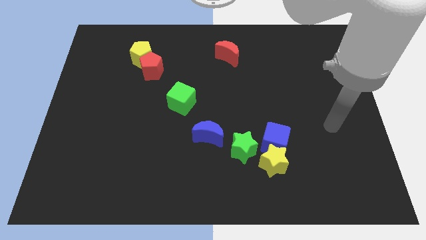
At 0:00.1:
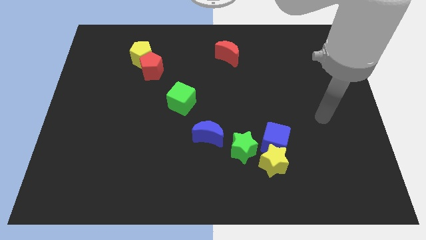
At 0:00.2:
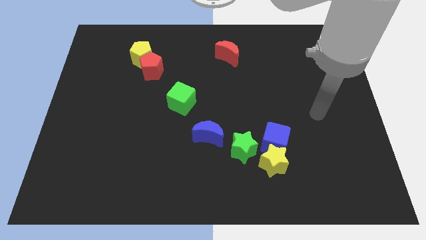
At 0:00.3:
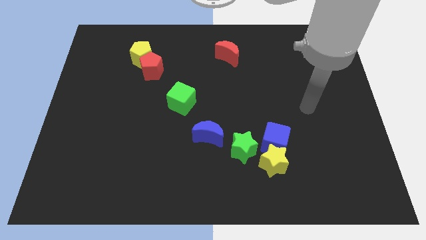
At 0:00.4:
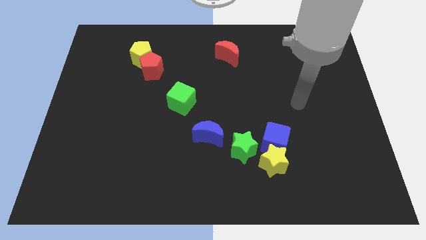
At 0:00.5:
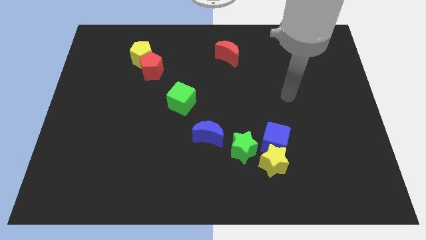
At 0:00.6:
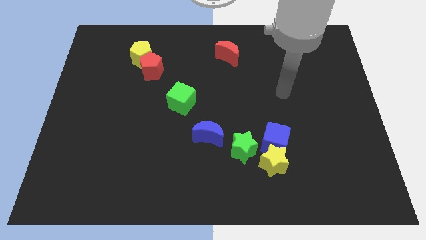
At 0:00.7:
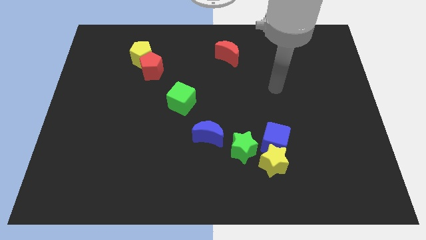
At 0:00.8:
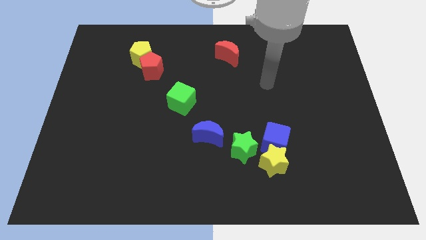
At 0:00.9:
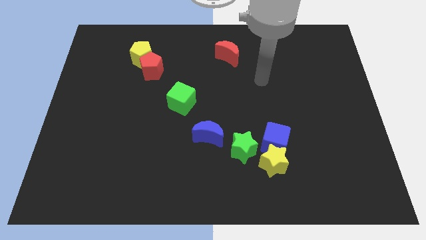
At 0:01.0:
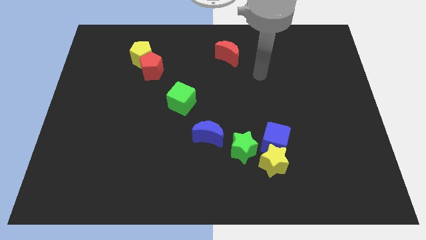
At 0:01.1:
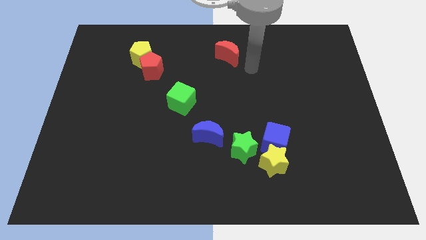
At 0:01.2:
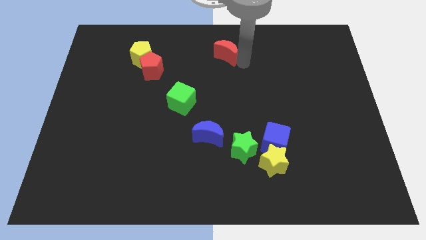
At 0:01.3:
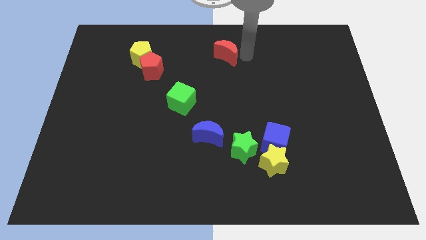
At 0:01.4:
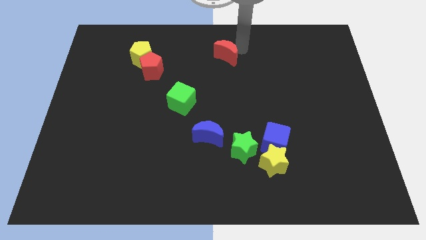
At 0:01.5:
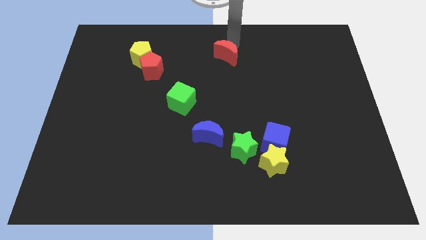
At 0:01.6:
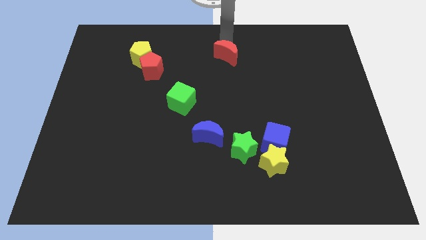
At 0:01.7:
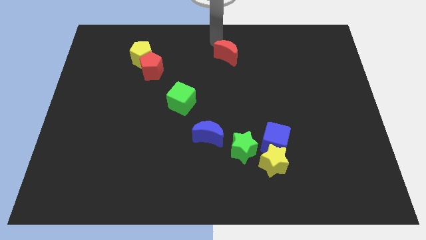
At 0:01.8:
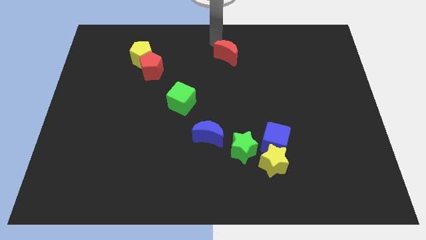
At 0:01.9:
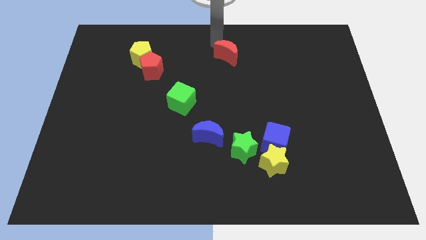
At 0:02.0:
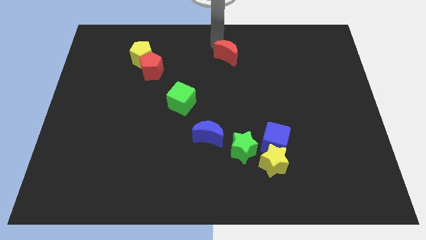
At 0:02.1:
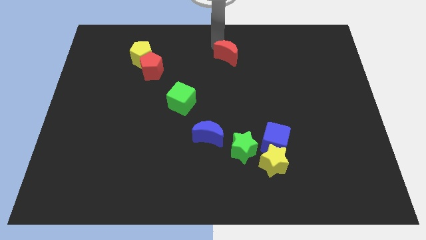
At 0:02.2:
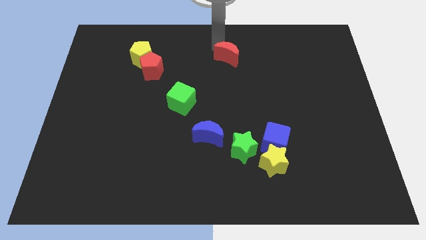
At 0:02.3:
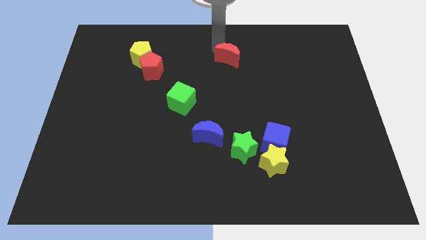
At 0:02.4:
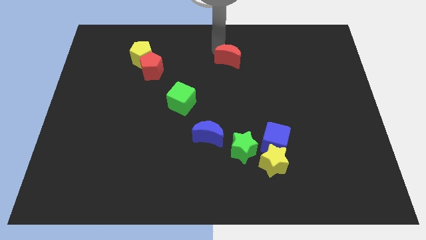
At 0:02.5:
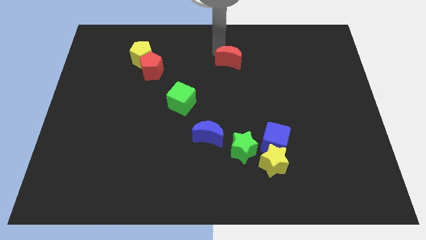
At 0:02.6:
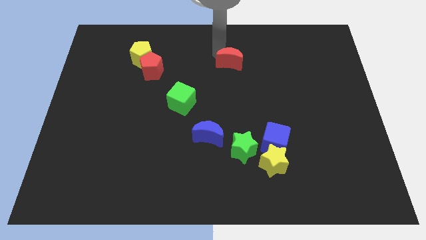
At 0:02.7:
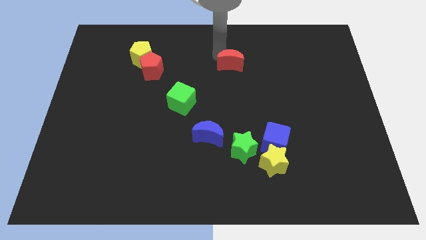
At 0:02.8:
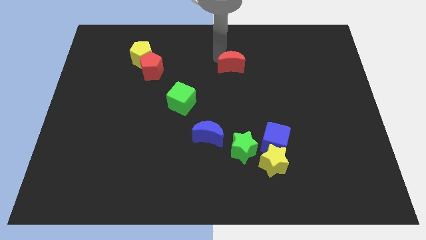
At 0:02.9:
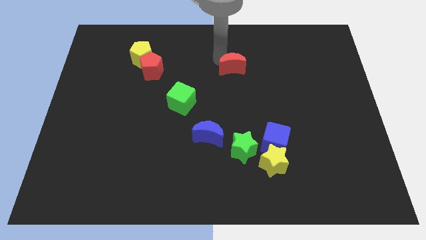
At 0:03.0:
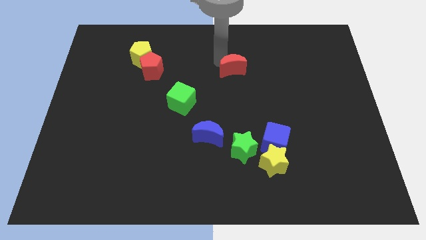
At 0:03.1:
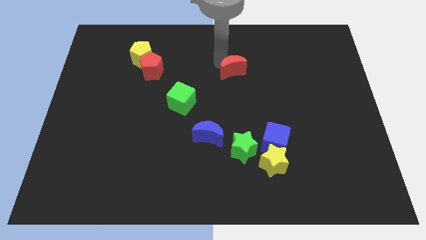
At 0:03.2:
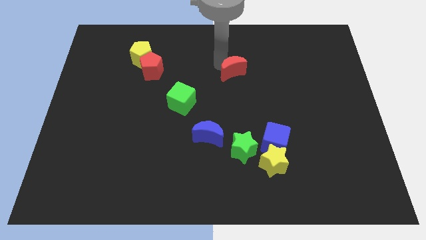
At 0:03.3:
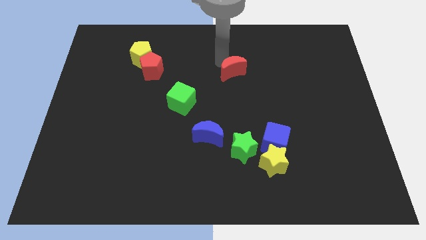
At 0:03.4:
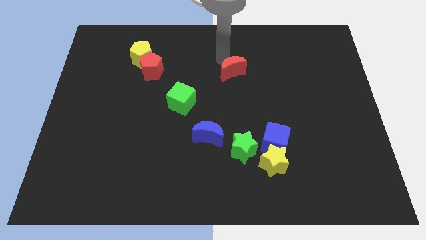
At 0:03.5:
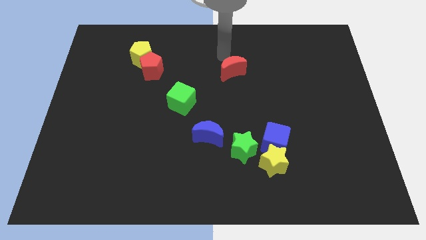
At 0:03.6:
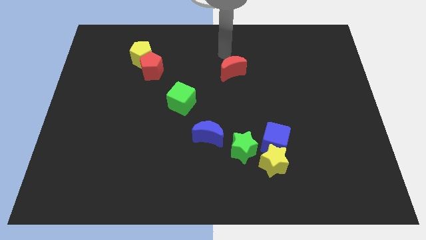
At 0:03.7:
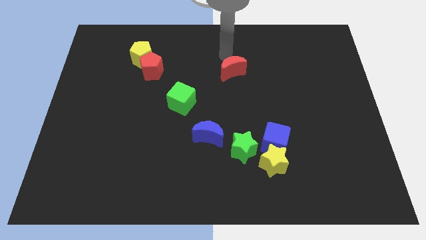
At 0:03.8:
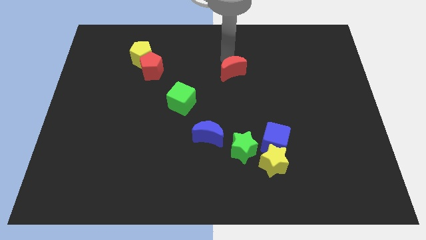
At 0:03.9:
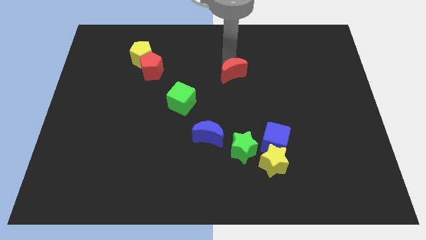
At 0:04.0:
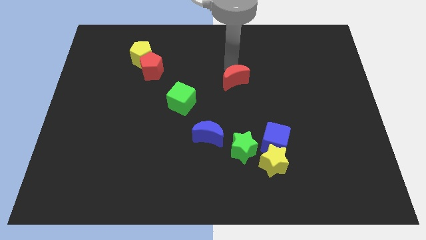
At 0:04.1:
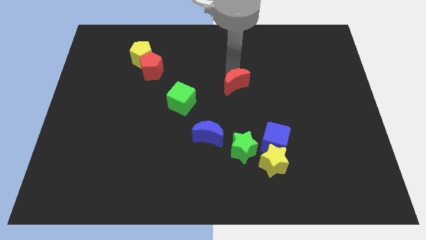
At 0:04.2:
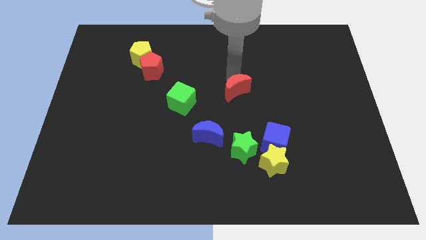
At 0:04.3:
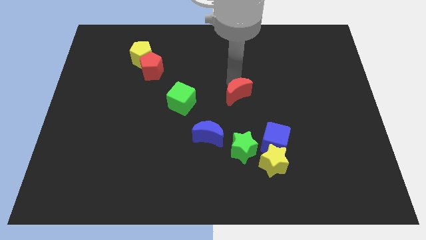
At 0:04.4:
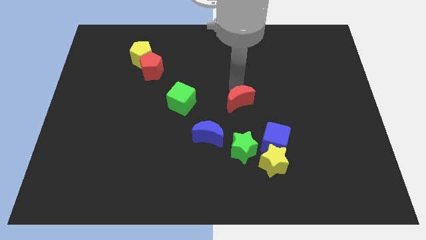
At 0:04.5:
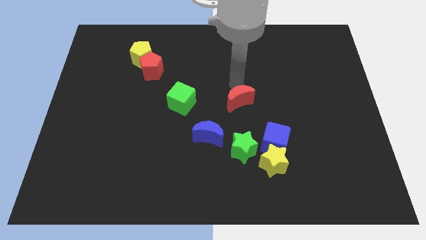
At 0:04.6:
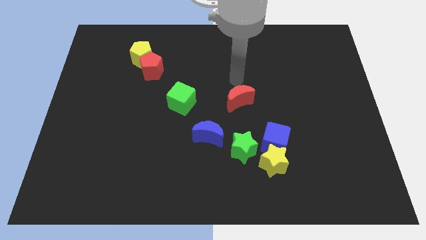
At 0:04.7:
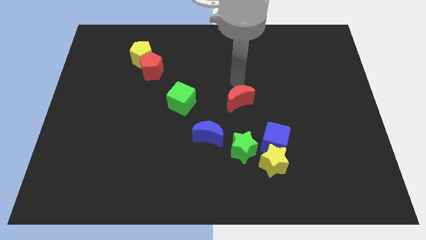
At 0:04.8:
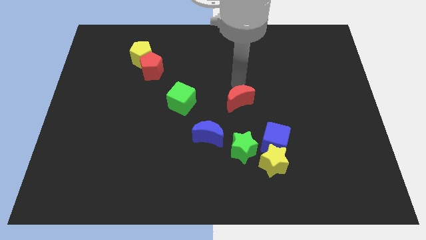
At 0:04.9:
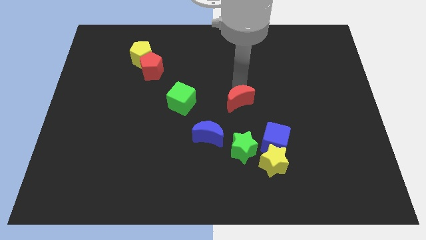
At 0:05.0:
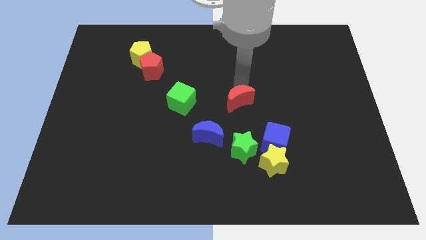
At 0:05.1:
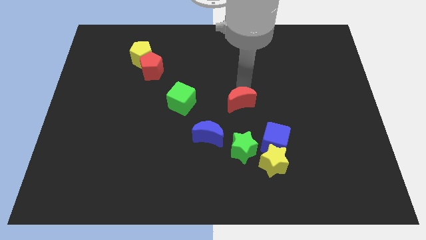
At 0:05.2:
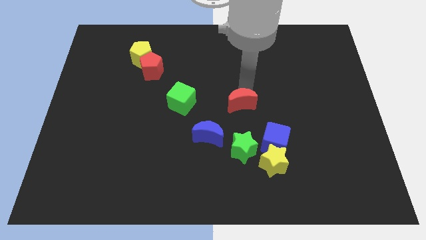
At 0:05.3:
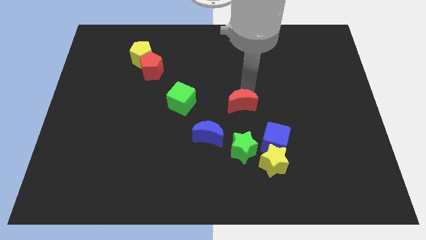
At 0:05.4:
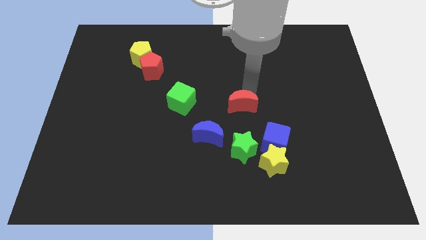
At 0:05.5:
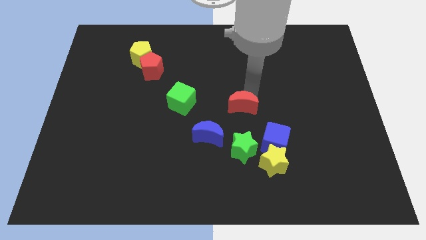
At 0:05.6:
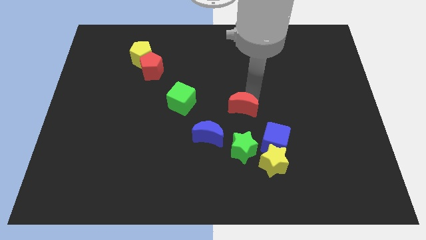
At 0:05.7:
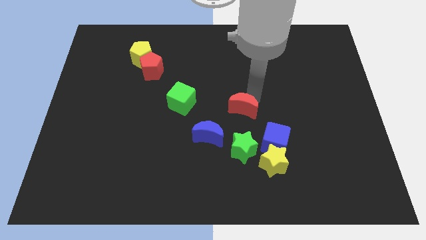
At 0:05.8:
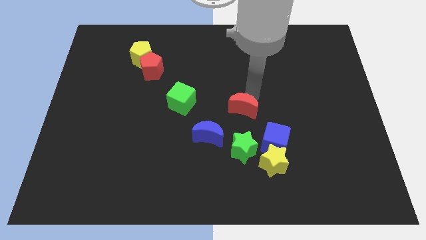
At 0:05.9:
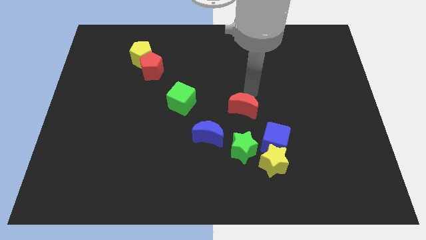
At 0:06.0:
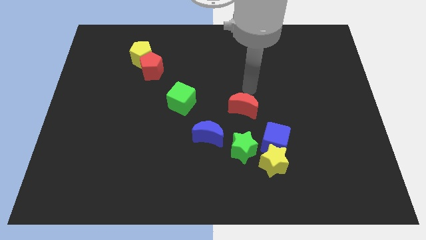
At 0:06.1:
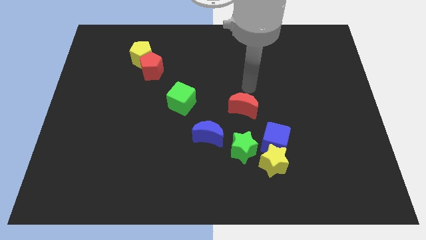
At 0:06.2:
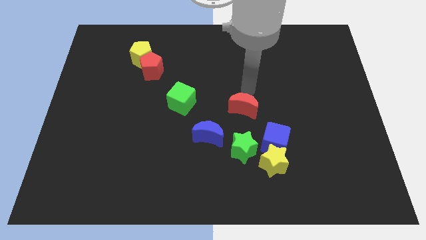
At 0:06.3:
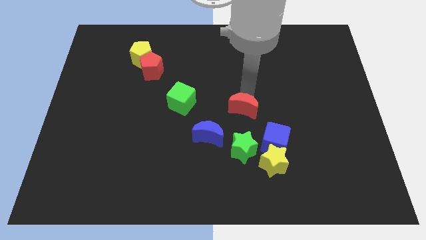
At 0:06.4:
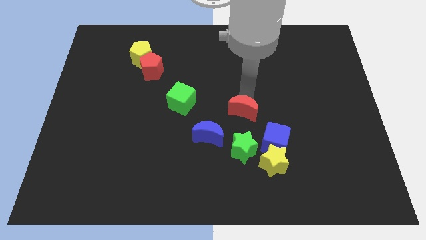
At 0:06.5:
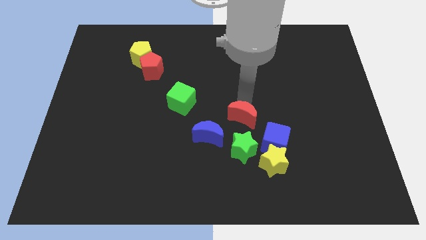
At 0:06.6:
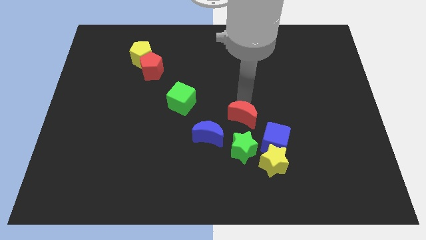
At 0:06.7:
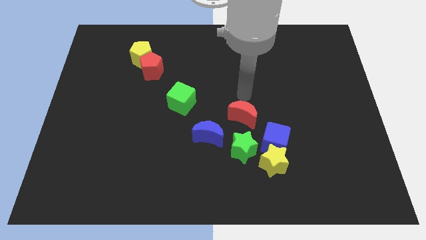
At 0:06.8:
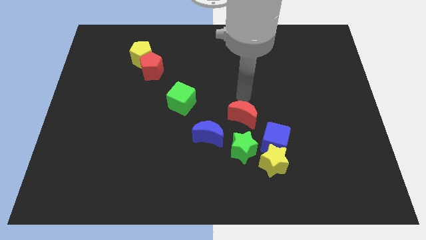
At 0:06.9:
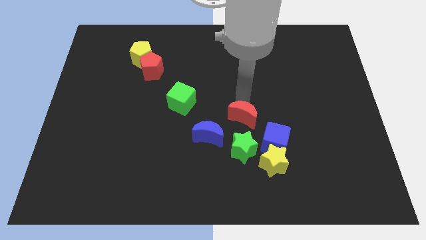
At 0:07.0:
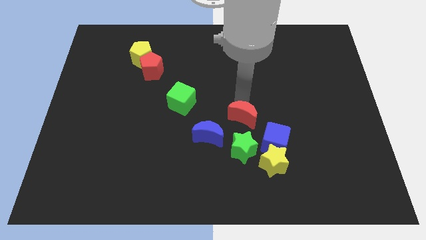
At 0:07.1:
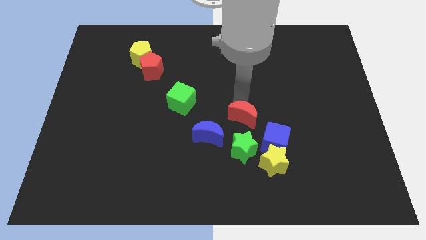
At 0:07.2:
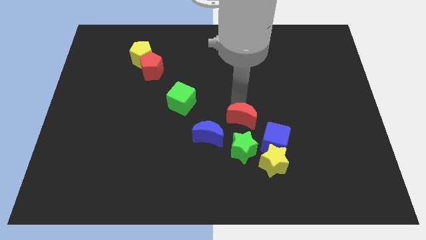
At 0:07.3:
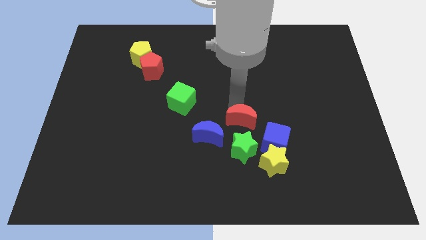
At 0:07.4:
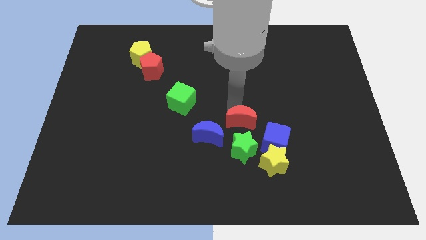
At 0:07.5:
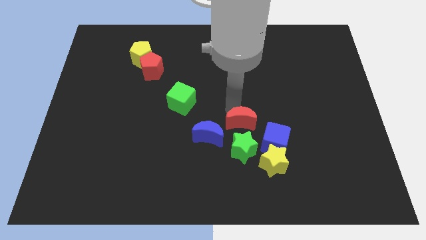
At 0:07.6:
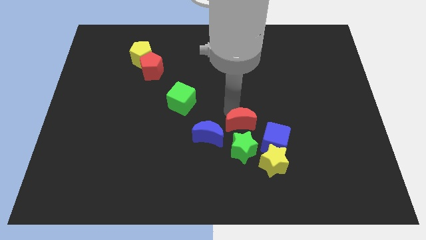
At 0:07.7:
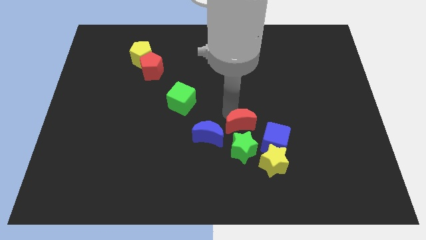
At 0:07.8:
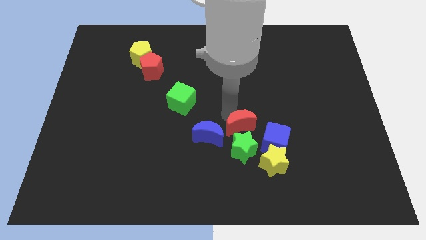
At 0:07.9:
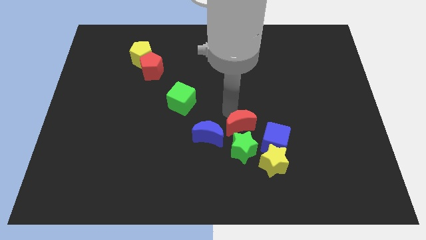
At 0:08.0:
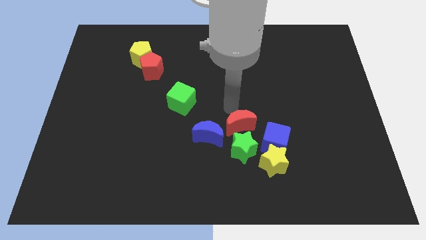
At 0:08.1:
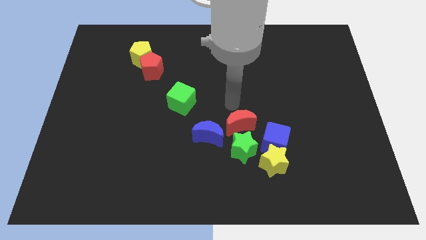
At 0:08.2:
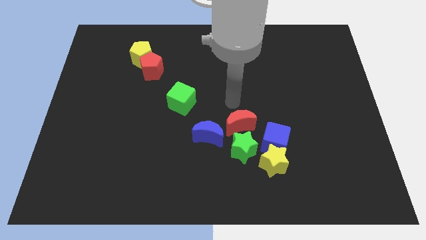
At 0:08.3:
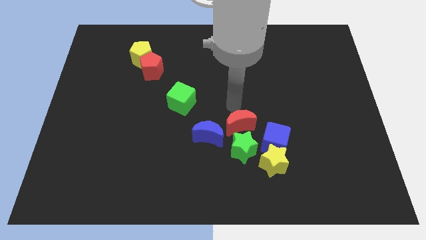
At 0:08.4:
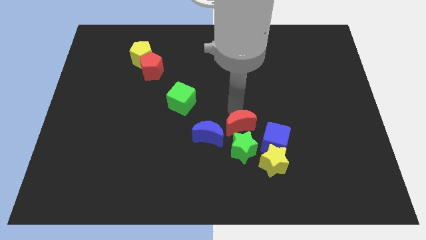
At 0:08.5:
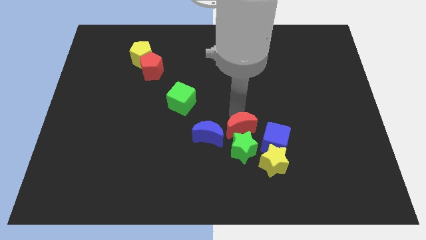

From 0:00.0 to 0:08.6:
push the red moon close to the green star
